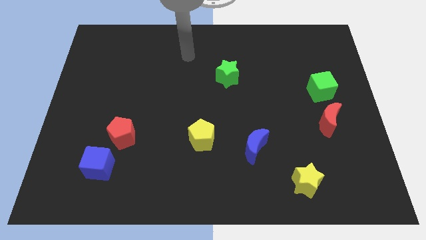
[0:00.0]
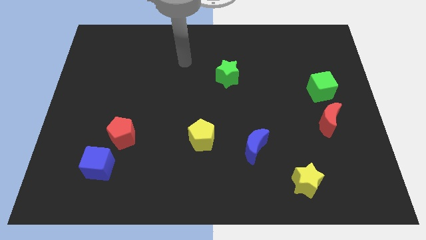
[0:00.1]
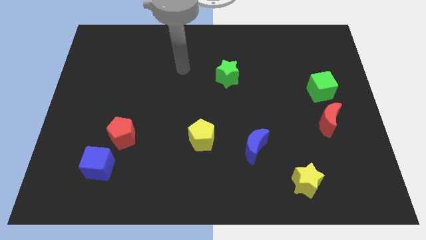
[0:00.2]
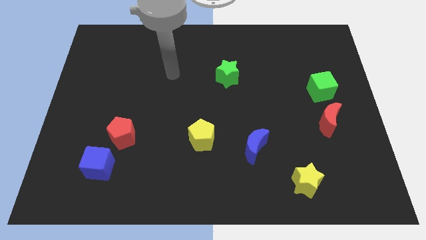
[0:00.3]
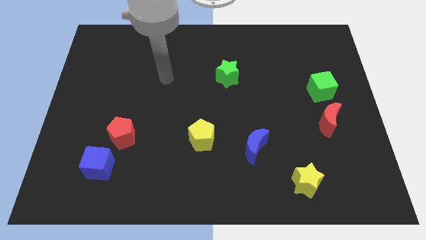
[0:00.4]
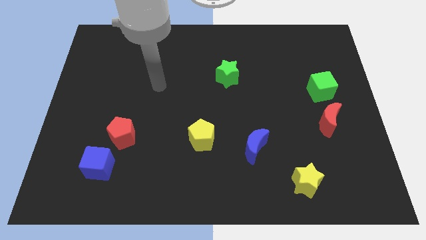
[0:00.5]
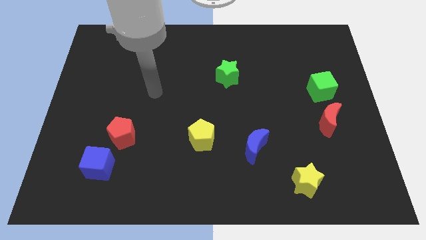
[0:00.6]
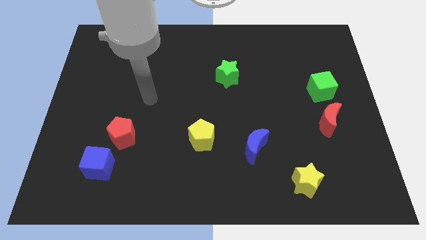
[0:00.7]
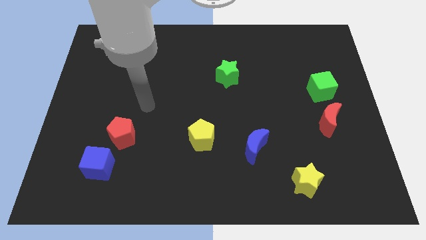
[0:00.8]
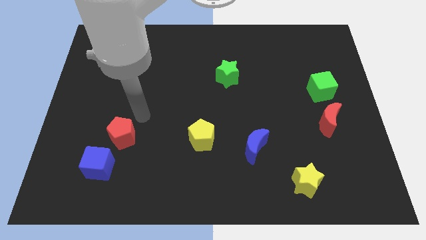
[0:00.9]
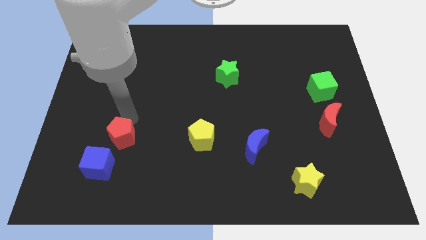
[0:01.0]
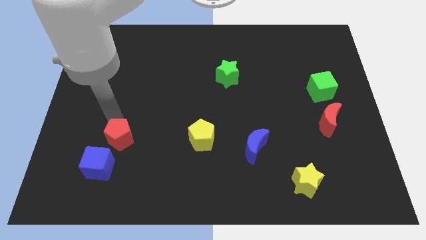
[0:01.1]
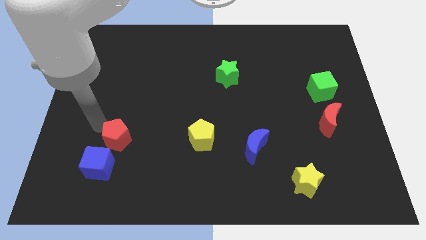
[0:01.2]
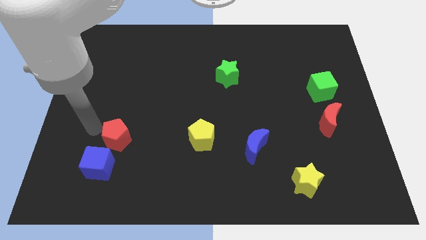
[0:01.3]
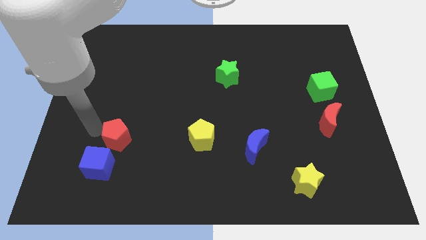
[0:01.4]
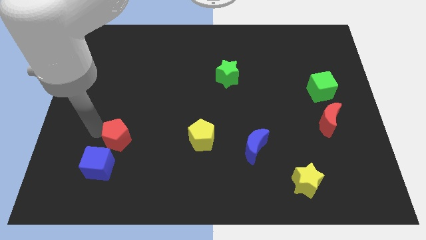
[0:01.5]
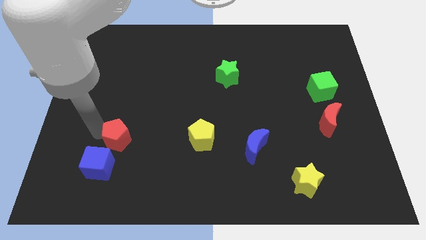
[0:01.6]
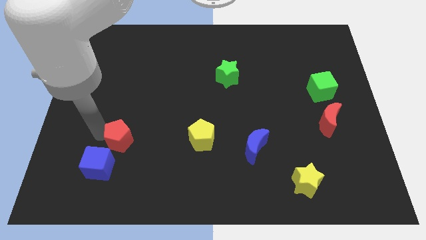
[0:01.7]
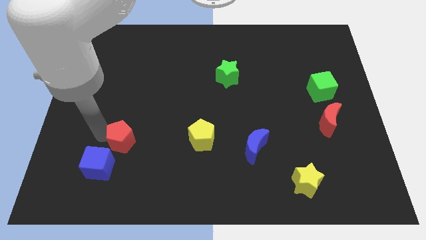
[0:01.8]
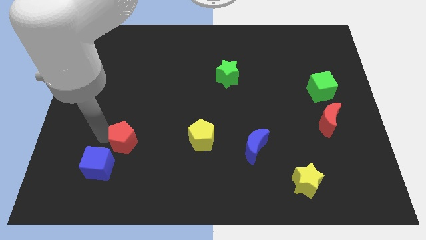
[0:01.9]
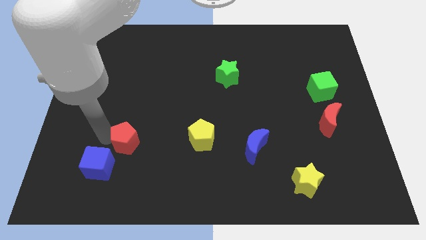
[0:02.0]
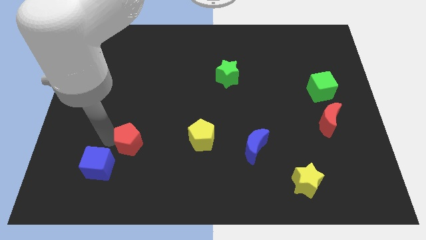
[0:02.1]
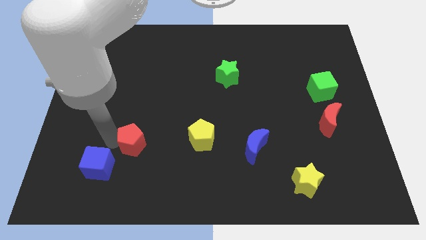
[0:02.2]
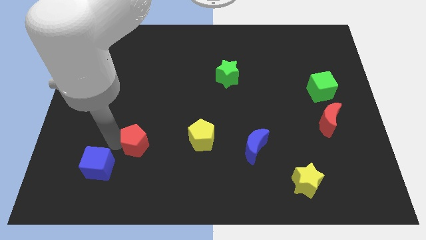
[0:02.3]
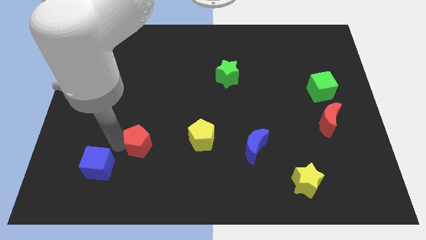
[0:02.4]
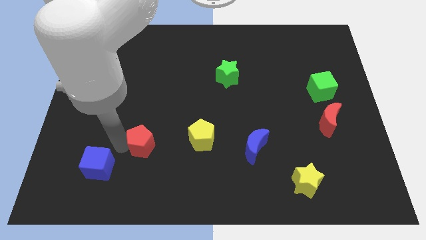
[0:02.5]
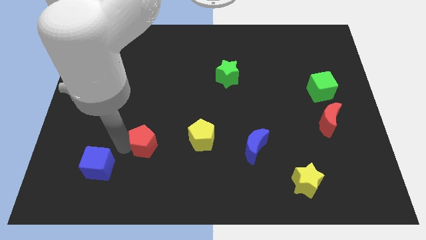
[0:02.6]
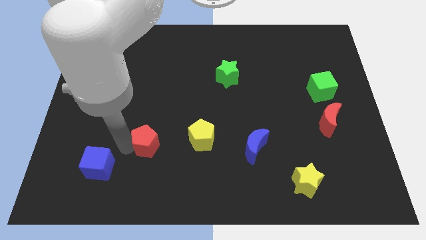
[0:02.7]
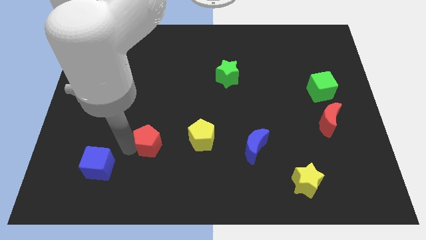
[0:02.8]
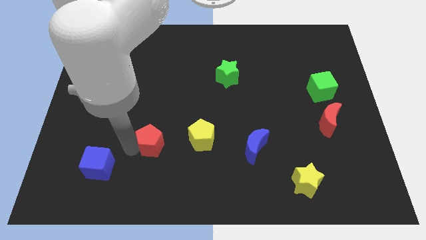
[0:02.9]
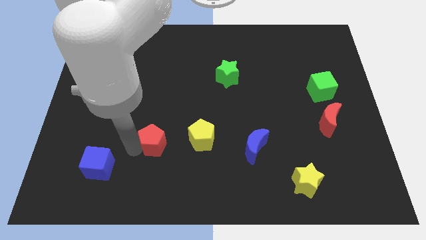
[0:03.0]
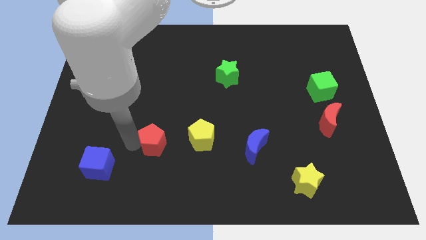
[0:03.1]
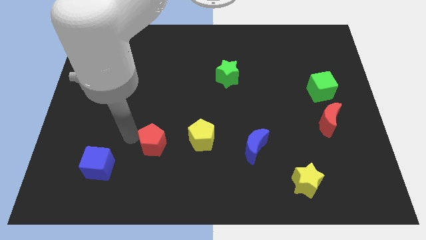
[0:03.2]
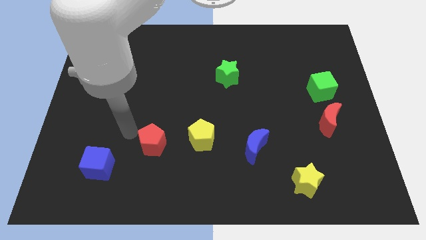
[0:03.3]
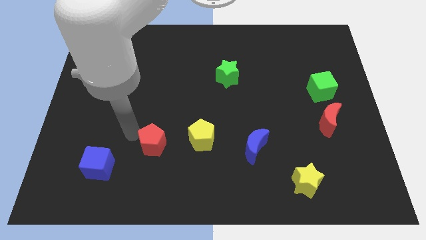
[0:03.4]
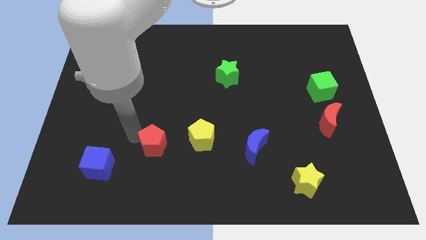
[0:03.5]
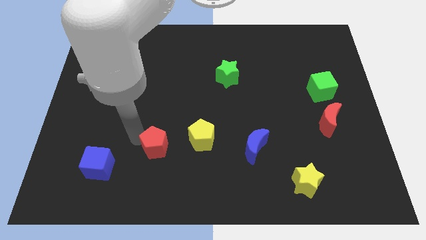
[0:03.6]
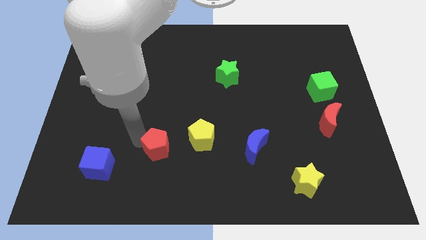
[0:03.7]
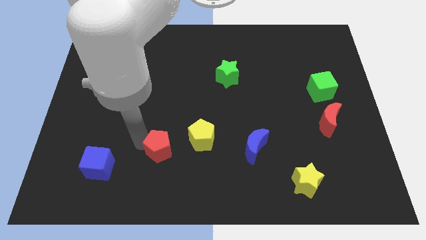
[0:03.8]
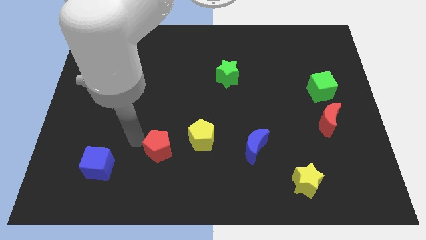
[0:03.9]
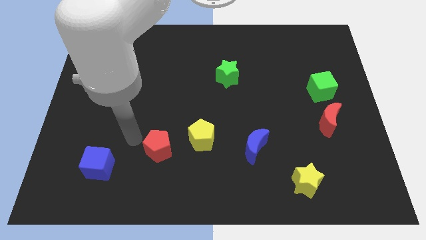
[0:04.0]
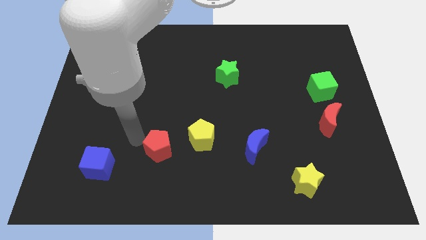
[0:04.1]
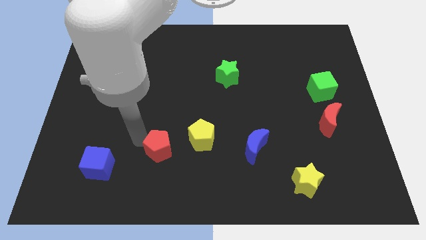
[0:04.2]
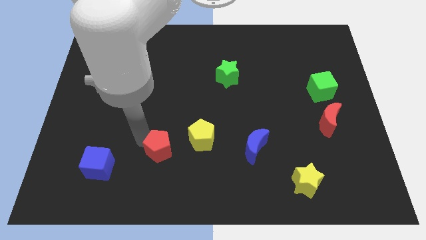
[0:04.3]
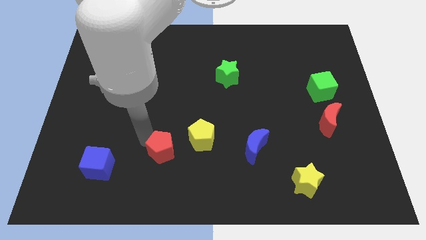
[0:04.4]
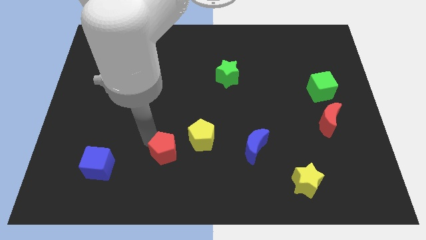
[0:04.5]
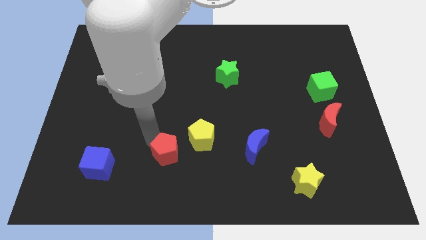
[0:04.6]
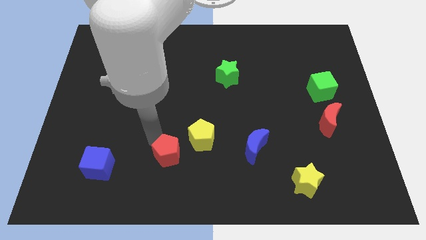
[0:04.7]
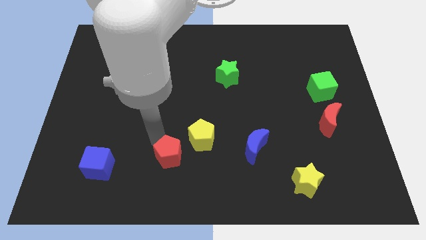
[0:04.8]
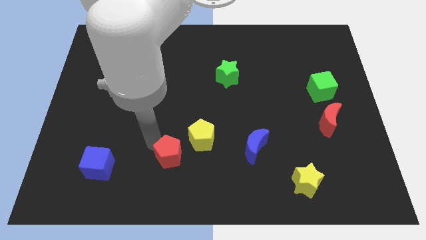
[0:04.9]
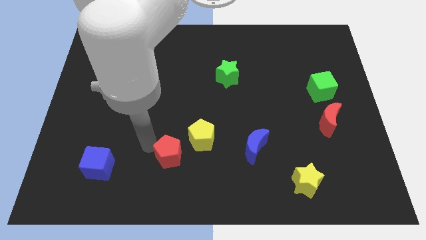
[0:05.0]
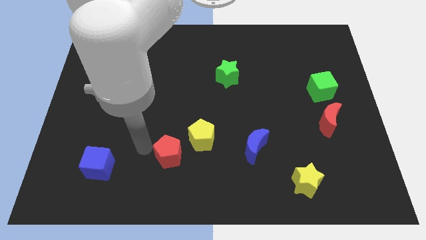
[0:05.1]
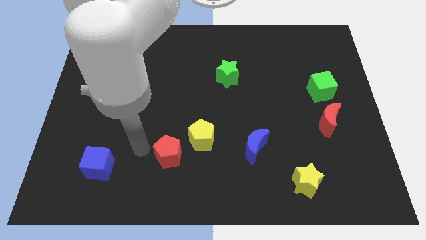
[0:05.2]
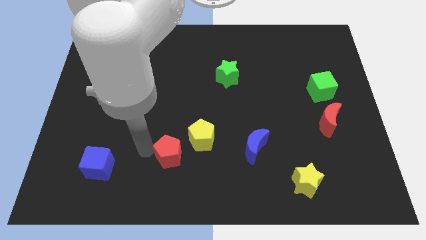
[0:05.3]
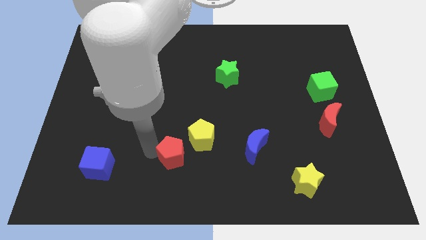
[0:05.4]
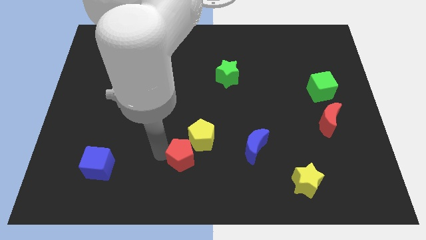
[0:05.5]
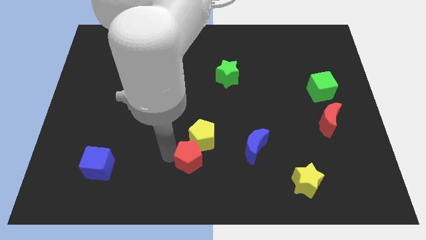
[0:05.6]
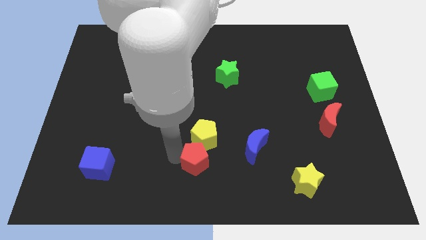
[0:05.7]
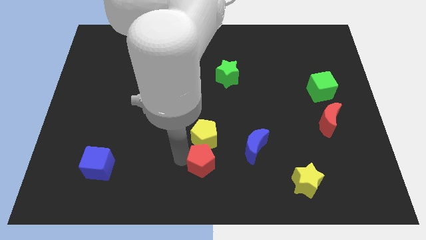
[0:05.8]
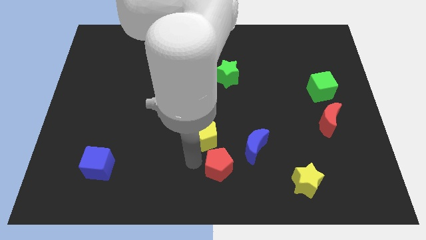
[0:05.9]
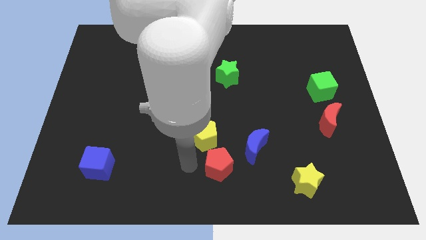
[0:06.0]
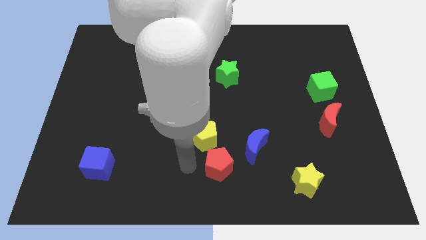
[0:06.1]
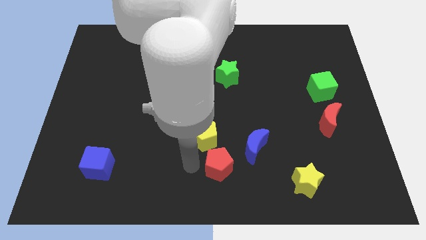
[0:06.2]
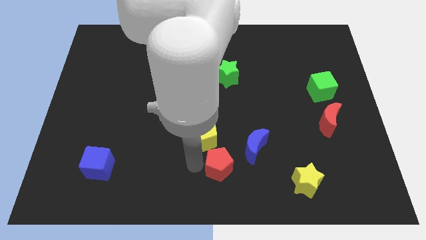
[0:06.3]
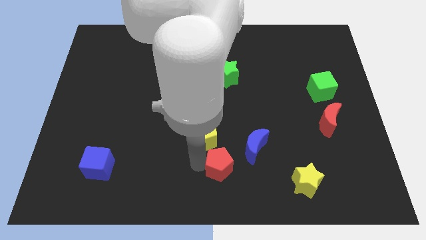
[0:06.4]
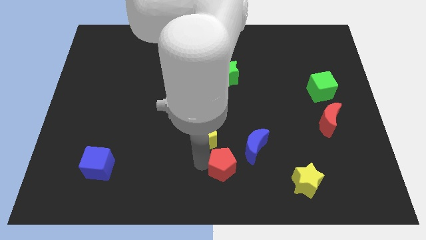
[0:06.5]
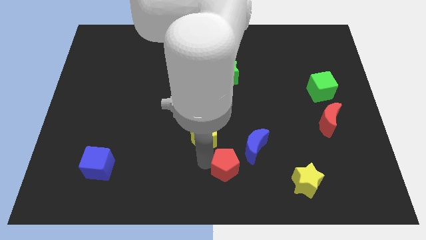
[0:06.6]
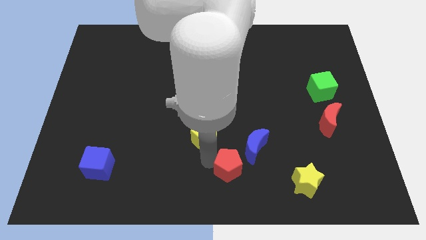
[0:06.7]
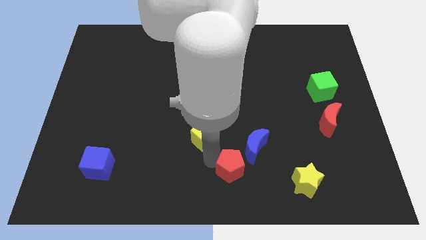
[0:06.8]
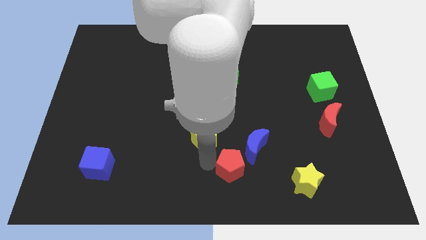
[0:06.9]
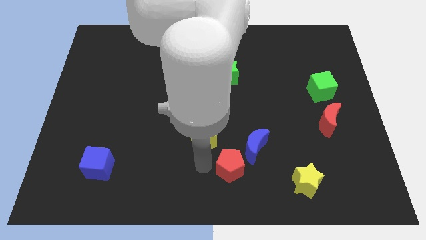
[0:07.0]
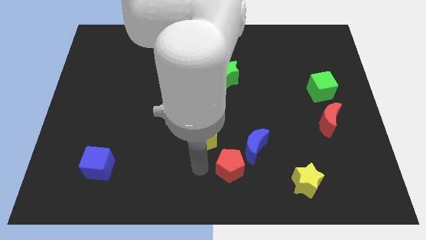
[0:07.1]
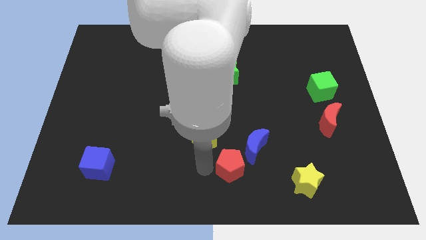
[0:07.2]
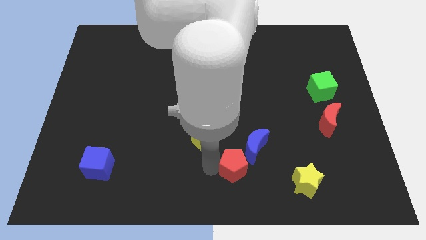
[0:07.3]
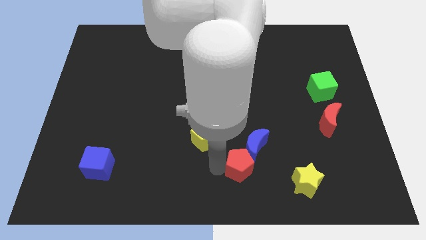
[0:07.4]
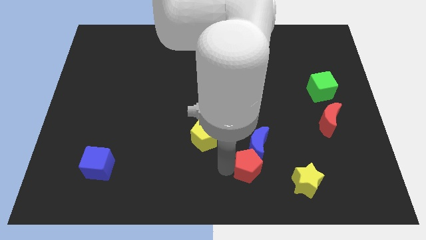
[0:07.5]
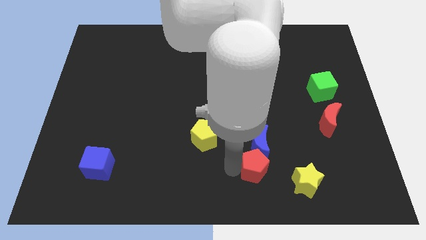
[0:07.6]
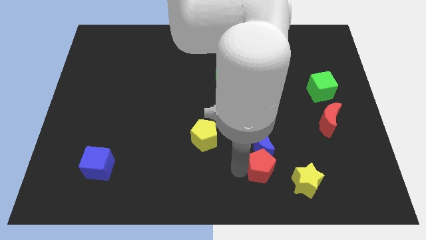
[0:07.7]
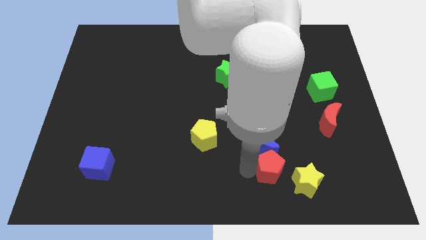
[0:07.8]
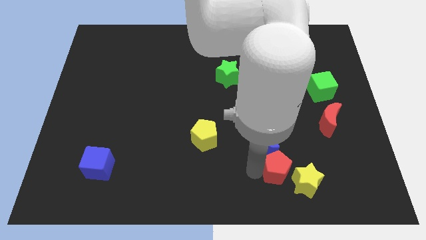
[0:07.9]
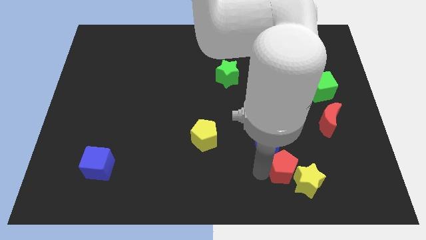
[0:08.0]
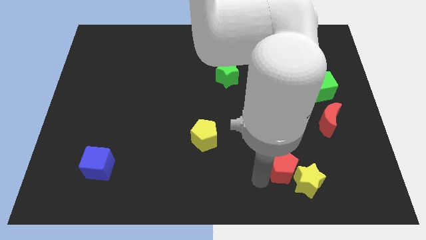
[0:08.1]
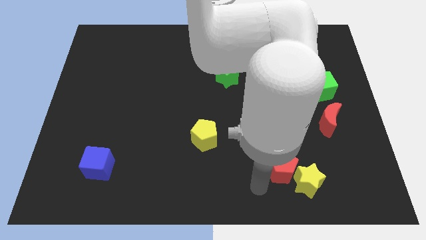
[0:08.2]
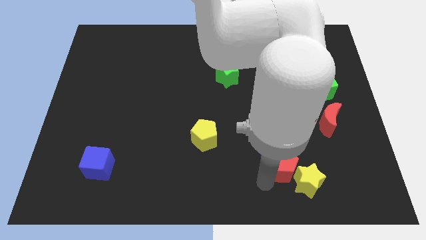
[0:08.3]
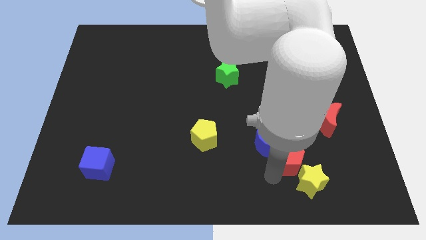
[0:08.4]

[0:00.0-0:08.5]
put the red pentagon right of the blue moon
